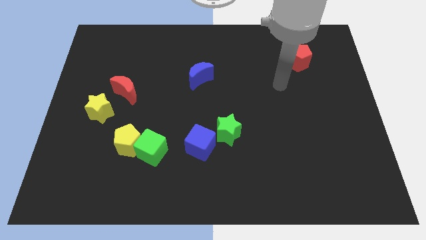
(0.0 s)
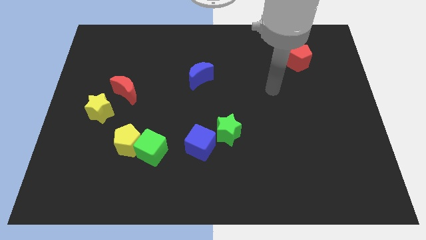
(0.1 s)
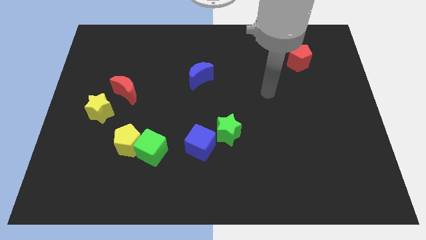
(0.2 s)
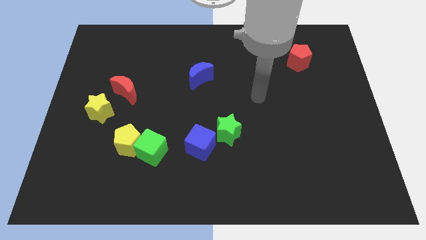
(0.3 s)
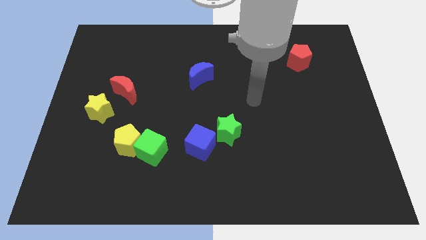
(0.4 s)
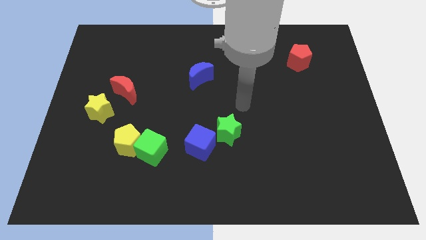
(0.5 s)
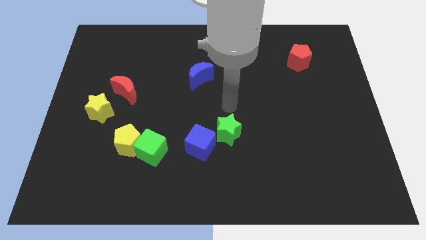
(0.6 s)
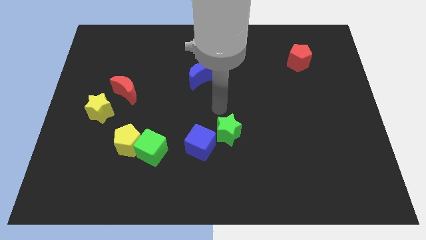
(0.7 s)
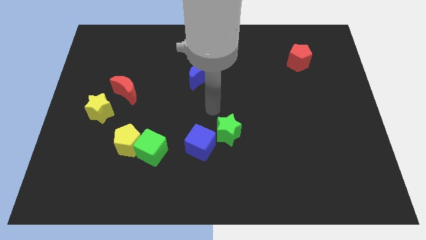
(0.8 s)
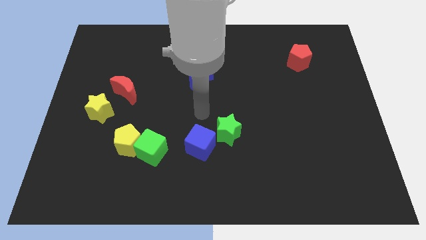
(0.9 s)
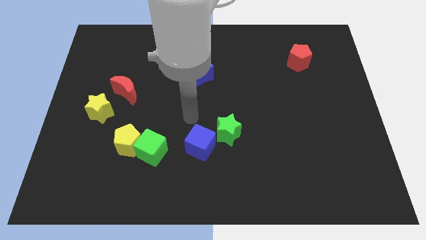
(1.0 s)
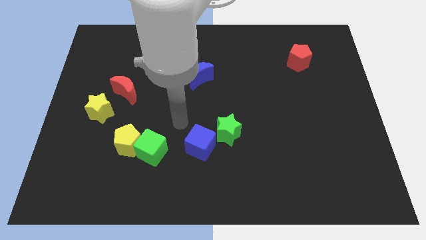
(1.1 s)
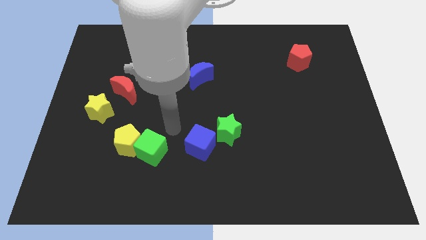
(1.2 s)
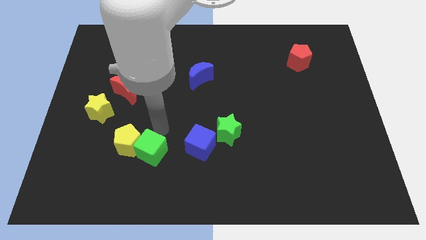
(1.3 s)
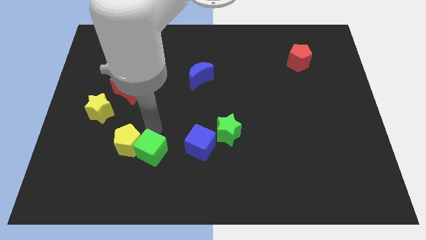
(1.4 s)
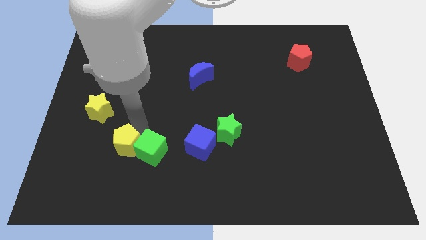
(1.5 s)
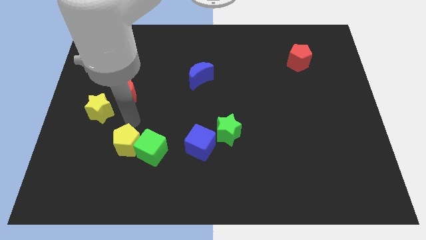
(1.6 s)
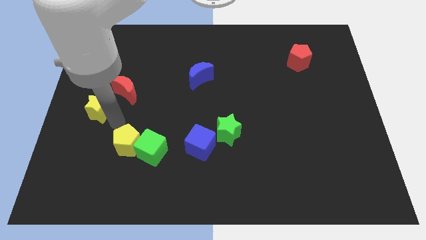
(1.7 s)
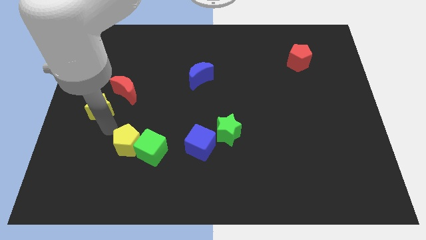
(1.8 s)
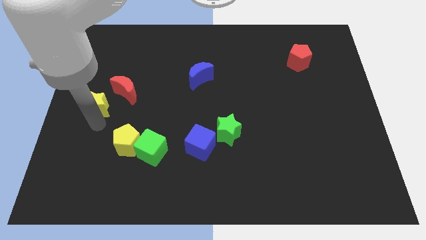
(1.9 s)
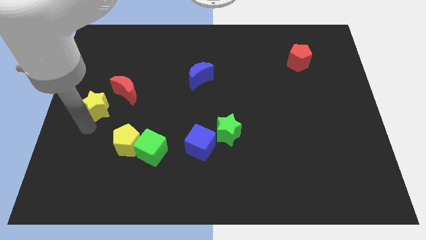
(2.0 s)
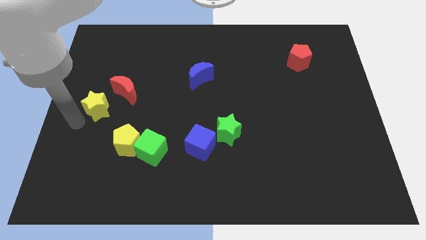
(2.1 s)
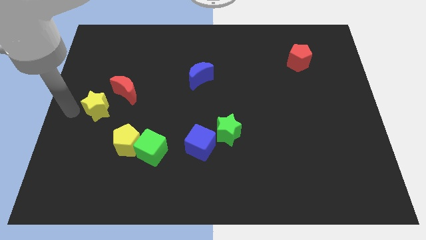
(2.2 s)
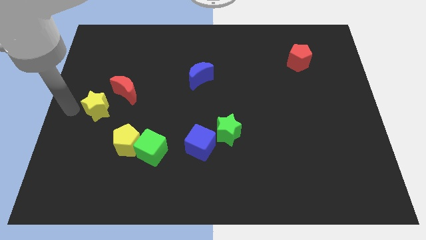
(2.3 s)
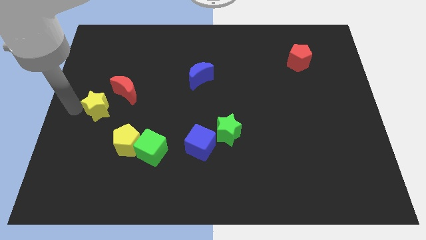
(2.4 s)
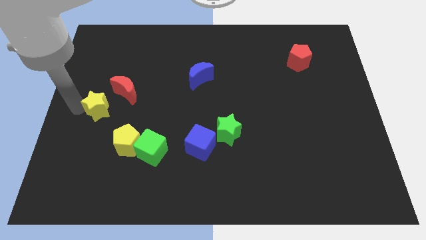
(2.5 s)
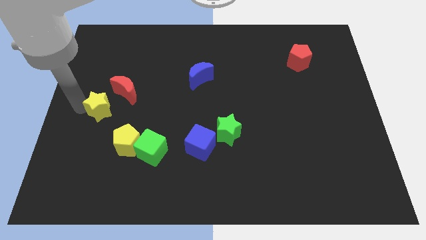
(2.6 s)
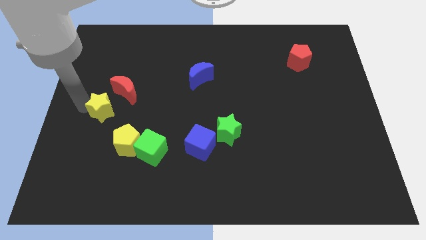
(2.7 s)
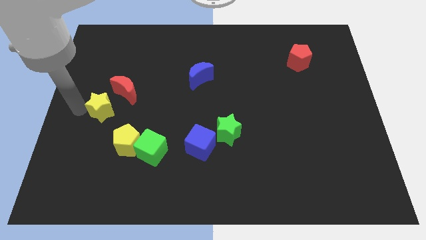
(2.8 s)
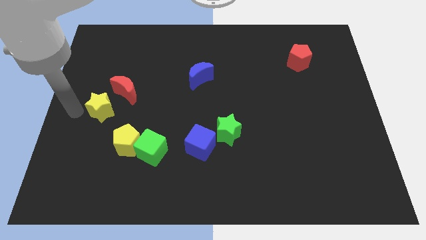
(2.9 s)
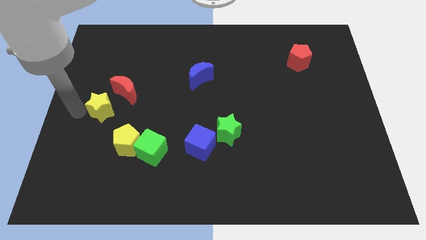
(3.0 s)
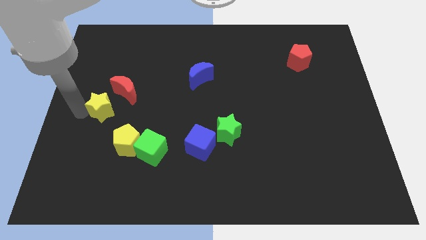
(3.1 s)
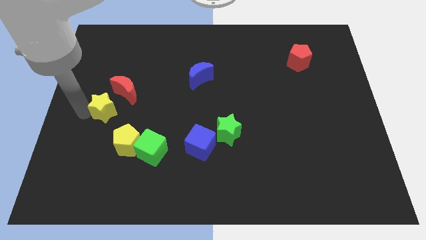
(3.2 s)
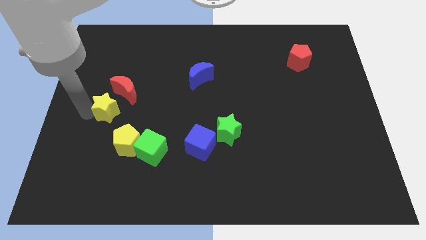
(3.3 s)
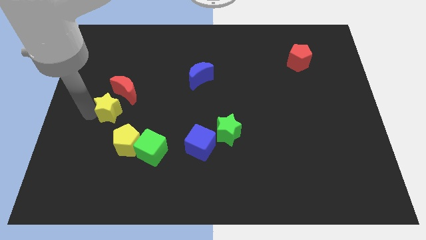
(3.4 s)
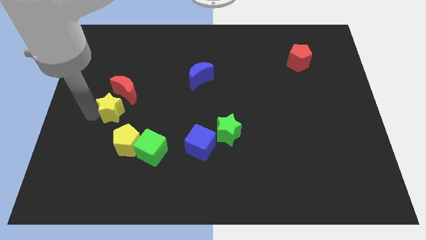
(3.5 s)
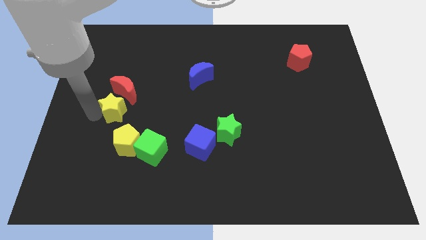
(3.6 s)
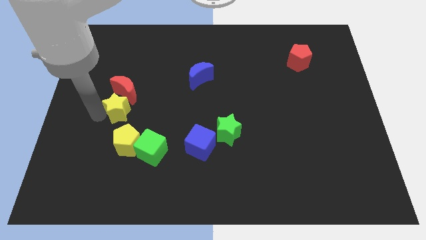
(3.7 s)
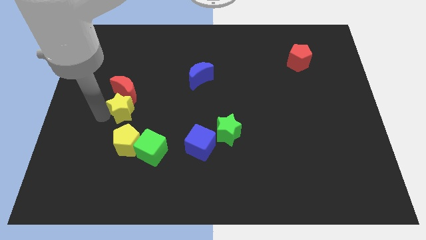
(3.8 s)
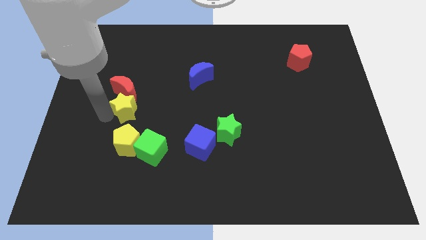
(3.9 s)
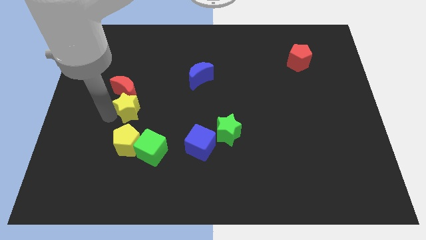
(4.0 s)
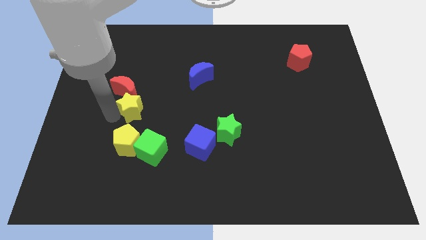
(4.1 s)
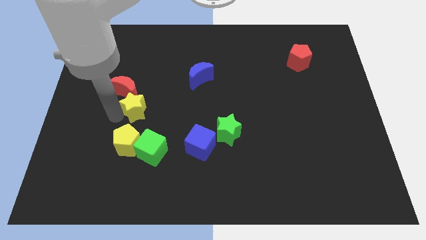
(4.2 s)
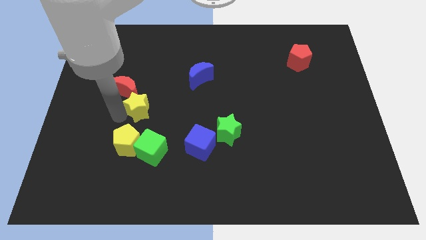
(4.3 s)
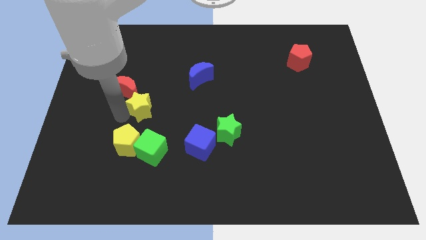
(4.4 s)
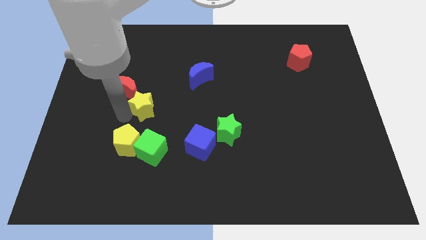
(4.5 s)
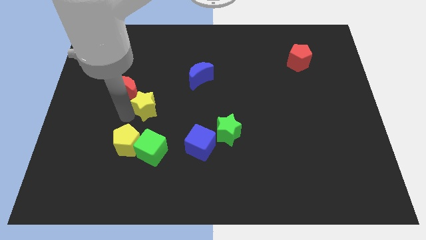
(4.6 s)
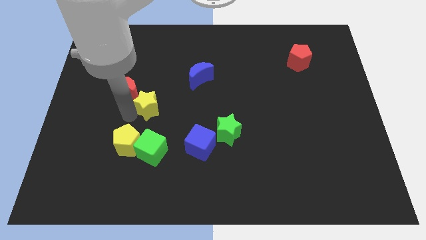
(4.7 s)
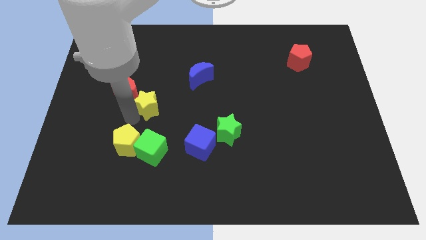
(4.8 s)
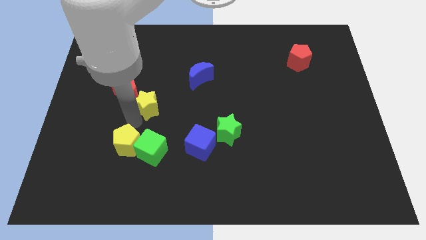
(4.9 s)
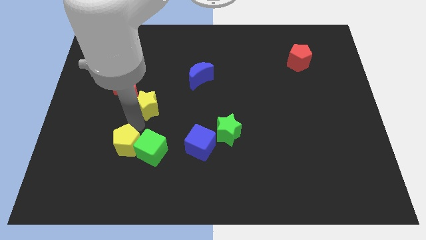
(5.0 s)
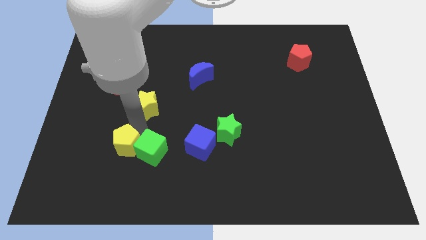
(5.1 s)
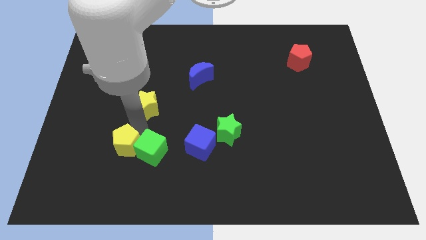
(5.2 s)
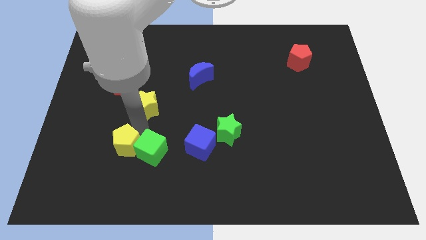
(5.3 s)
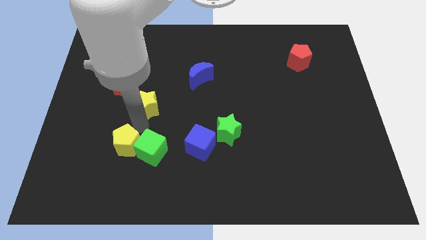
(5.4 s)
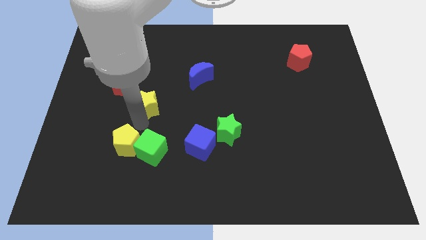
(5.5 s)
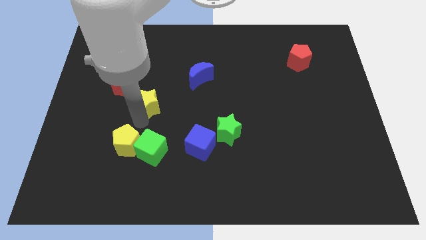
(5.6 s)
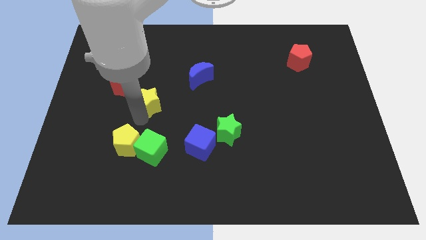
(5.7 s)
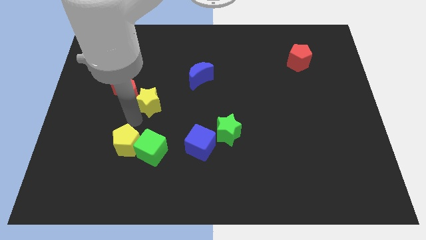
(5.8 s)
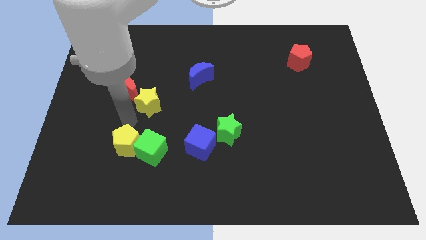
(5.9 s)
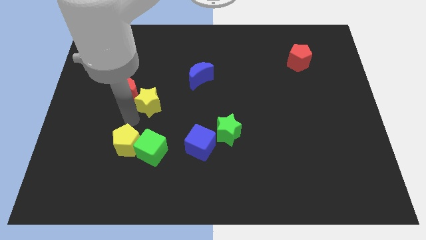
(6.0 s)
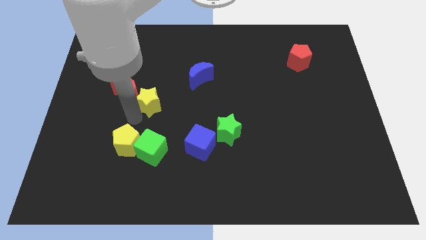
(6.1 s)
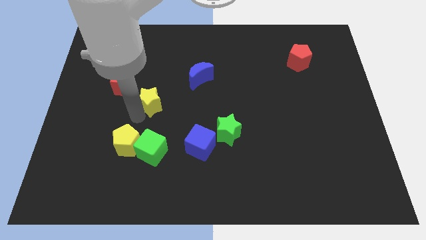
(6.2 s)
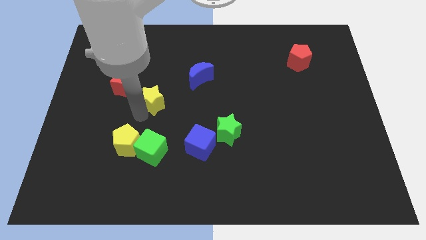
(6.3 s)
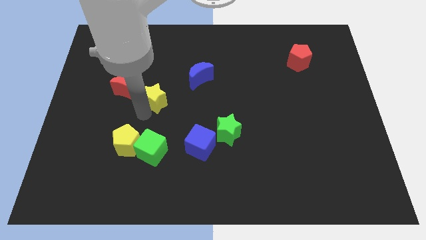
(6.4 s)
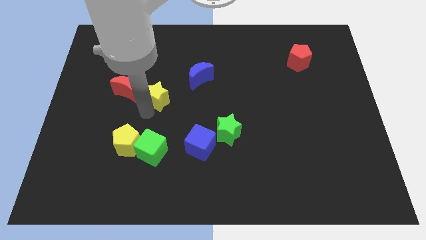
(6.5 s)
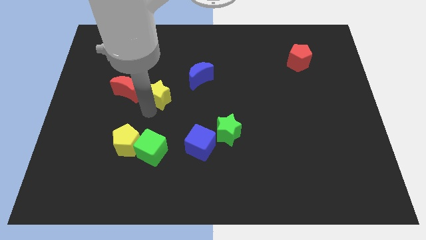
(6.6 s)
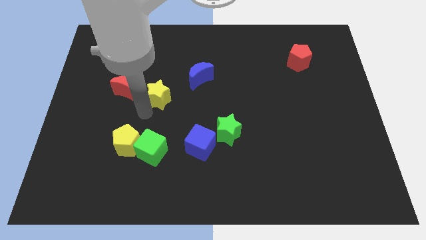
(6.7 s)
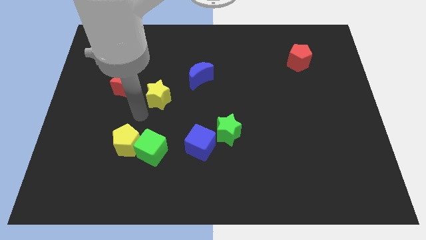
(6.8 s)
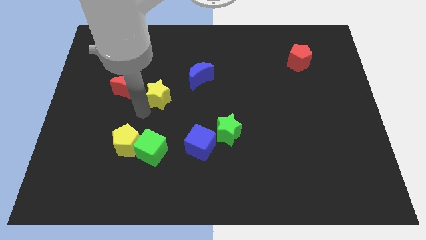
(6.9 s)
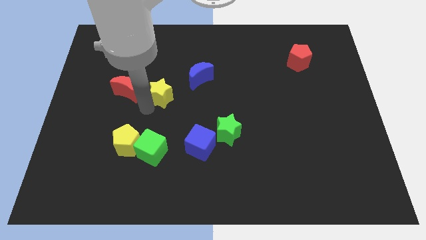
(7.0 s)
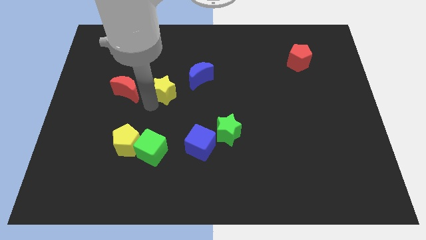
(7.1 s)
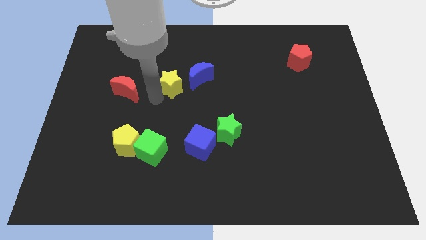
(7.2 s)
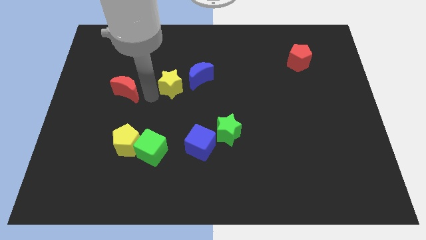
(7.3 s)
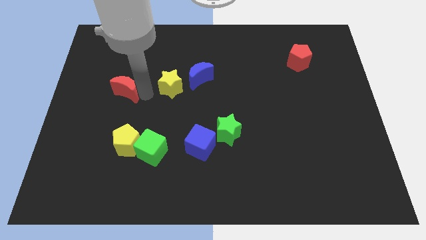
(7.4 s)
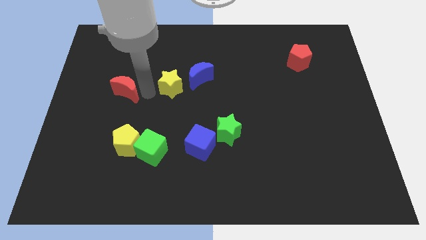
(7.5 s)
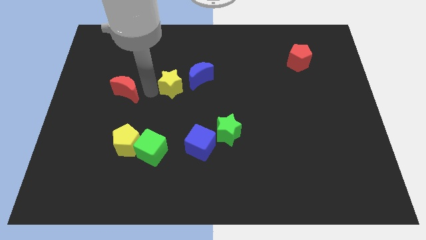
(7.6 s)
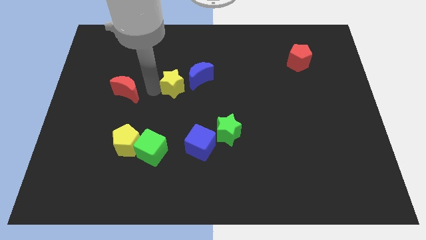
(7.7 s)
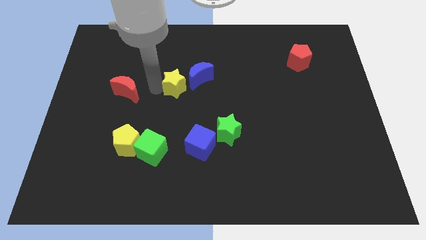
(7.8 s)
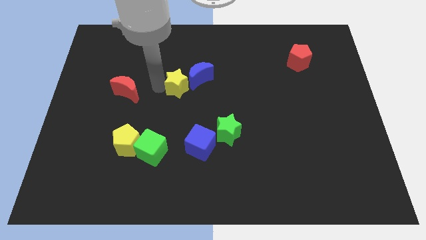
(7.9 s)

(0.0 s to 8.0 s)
slide the yellow star close to the blue moon
